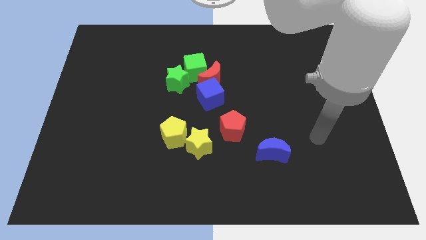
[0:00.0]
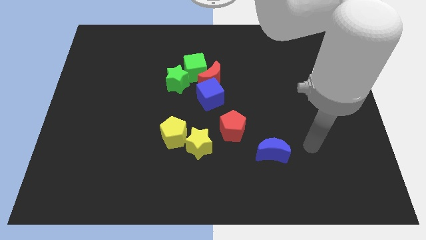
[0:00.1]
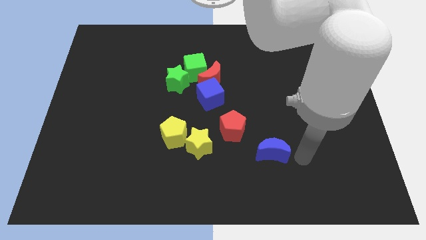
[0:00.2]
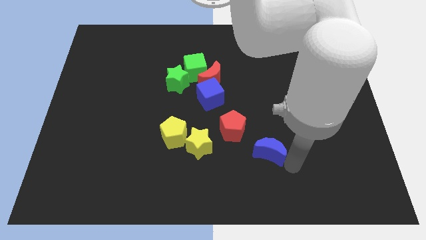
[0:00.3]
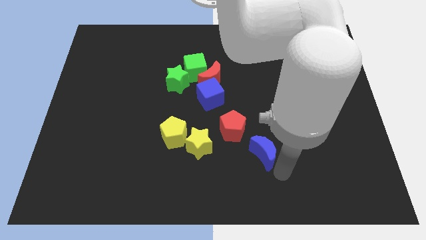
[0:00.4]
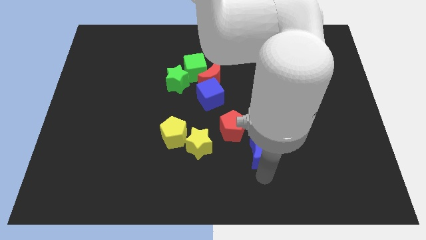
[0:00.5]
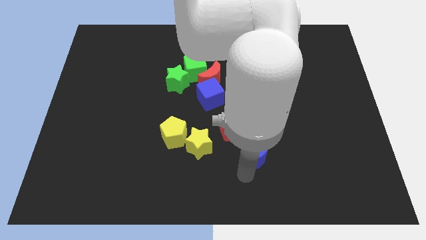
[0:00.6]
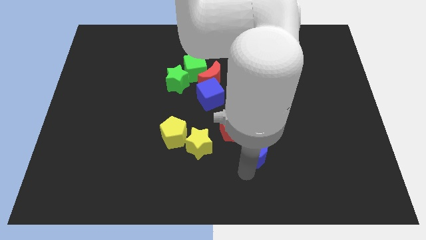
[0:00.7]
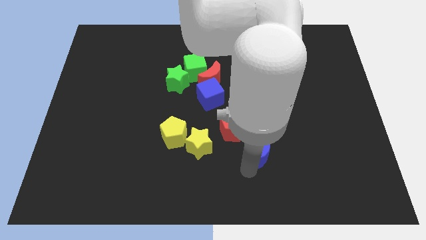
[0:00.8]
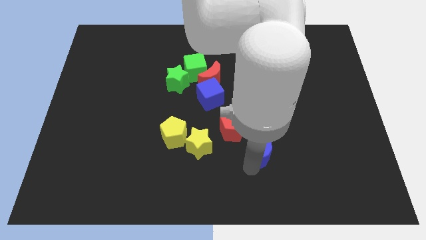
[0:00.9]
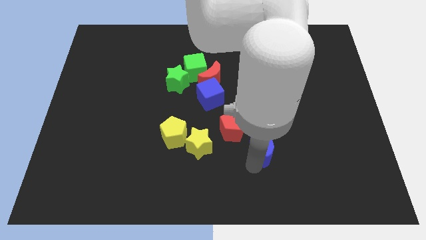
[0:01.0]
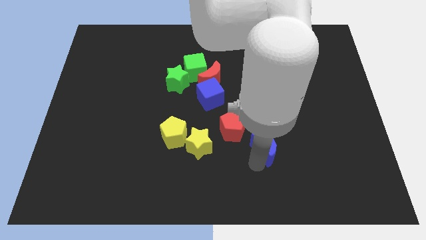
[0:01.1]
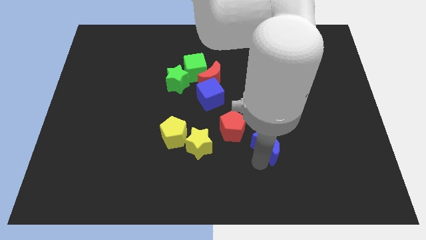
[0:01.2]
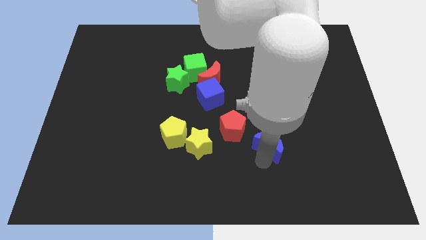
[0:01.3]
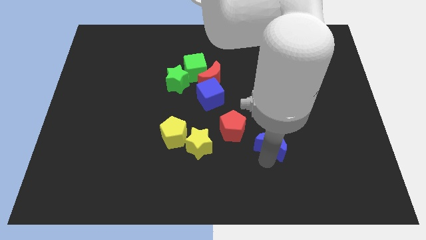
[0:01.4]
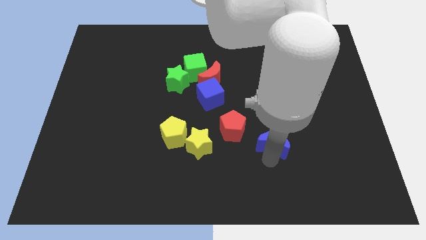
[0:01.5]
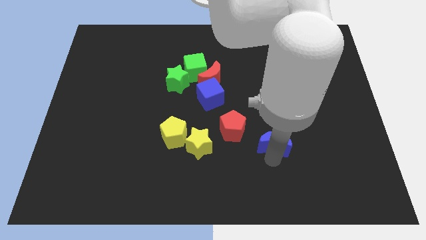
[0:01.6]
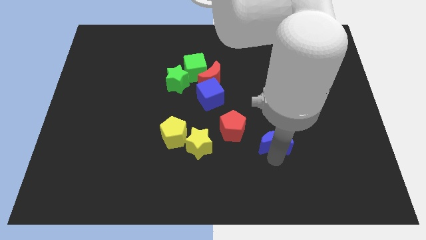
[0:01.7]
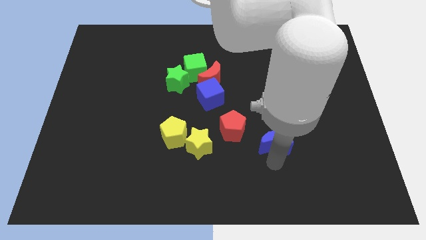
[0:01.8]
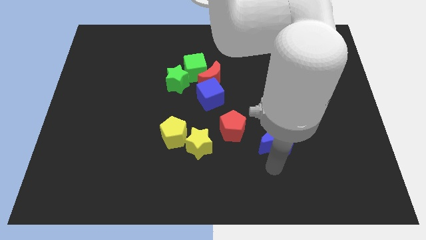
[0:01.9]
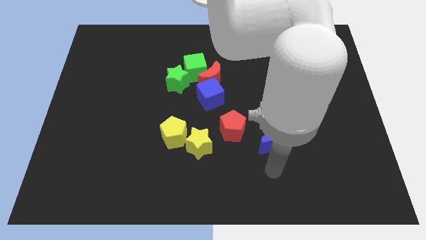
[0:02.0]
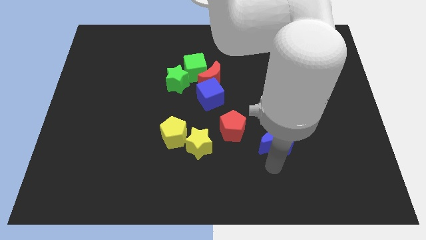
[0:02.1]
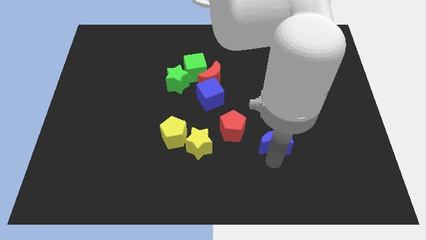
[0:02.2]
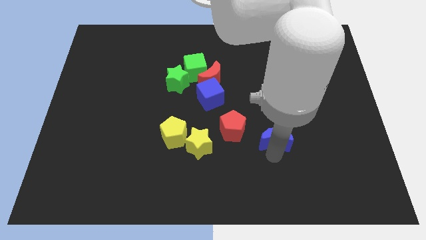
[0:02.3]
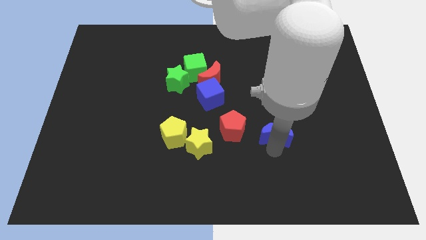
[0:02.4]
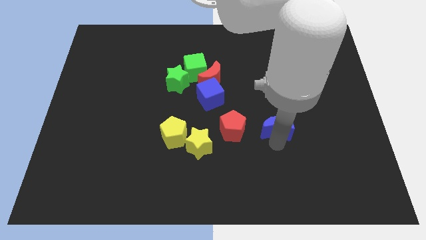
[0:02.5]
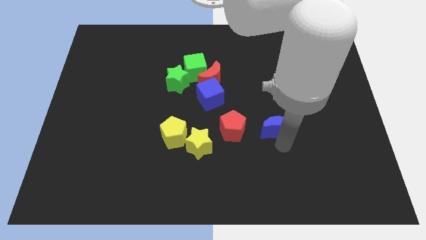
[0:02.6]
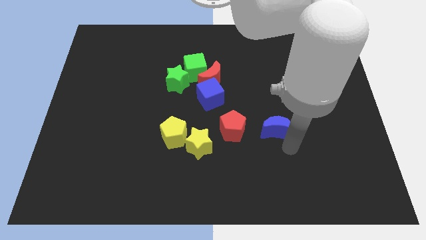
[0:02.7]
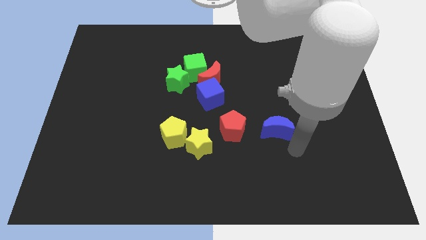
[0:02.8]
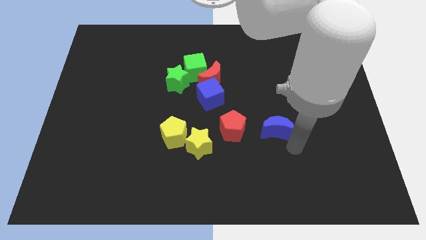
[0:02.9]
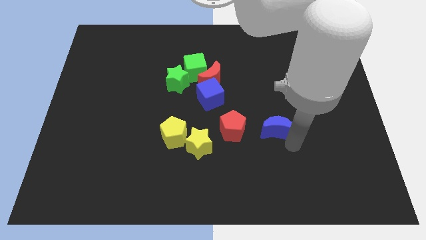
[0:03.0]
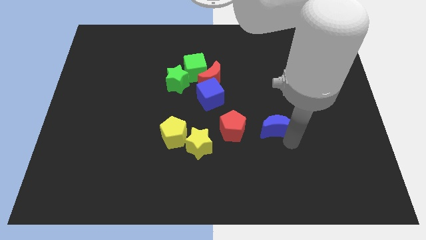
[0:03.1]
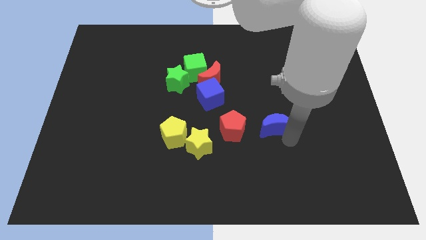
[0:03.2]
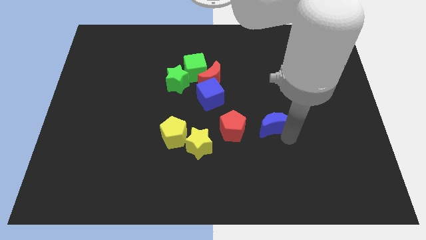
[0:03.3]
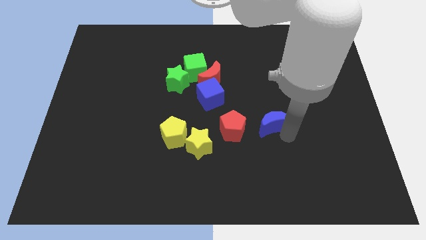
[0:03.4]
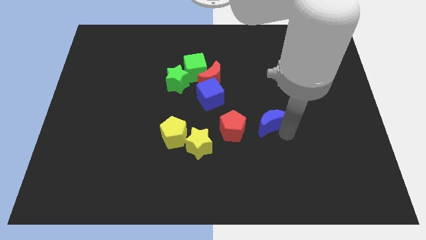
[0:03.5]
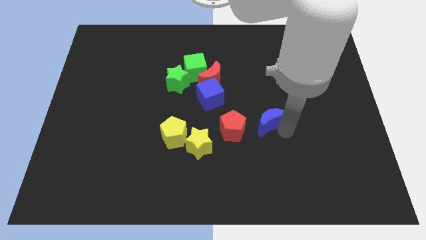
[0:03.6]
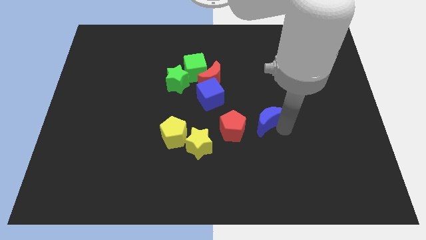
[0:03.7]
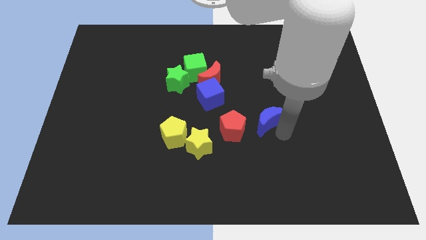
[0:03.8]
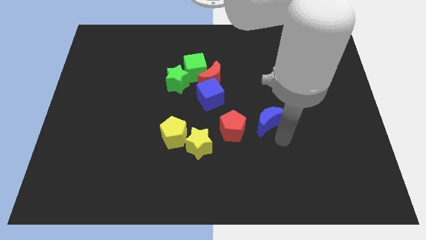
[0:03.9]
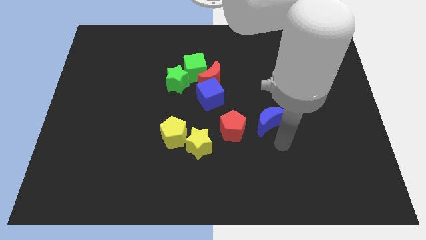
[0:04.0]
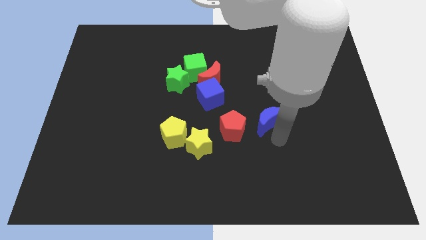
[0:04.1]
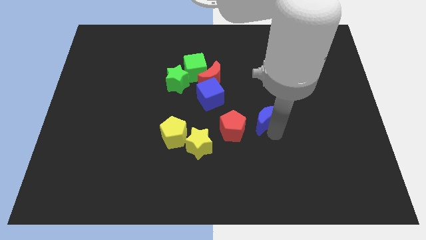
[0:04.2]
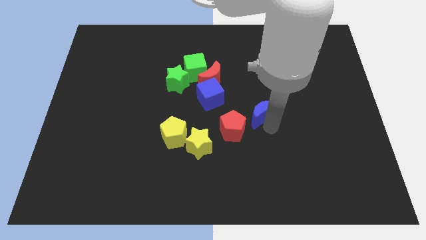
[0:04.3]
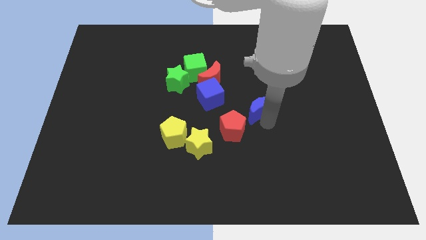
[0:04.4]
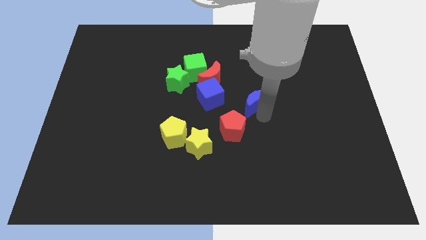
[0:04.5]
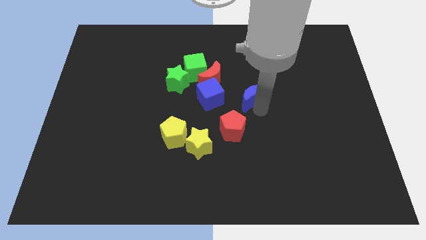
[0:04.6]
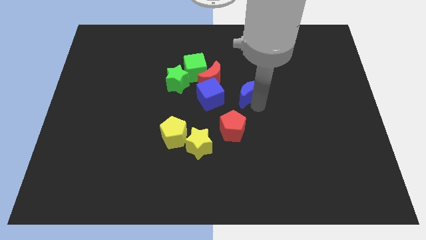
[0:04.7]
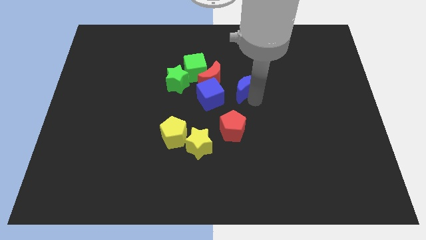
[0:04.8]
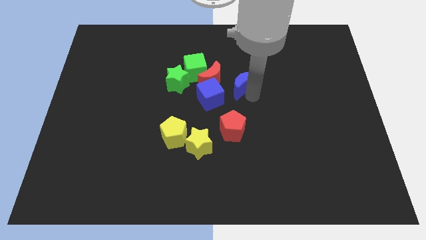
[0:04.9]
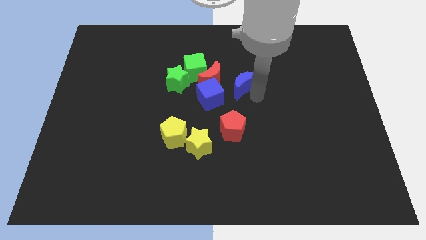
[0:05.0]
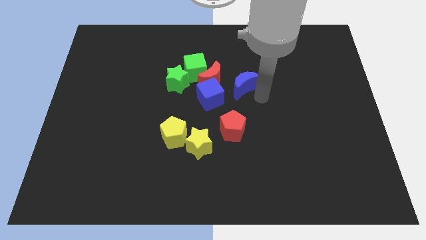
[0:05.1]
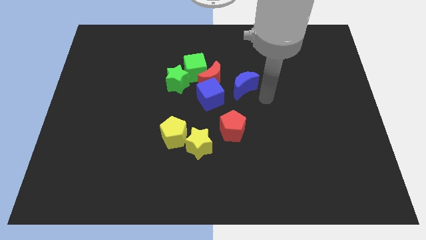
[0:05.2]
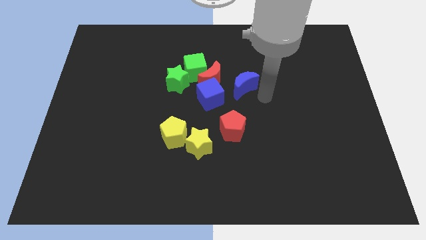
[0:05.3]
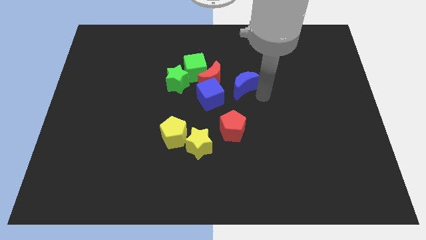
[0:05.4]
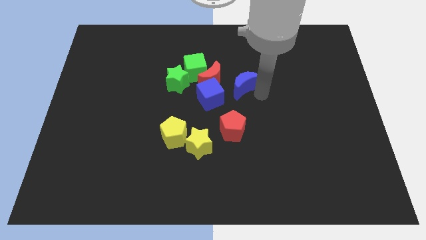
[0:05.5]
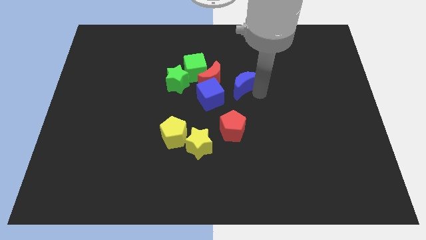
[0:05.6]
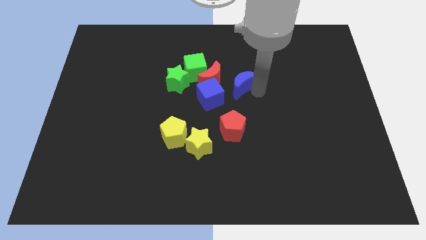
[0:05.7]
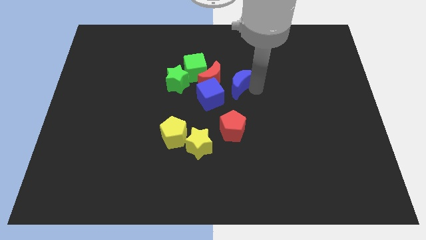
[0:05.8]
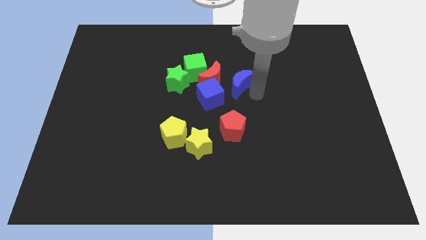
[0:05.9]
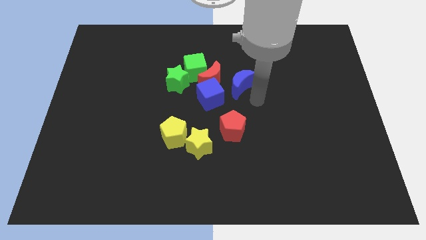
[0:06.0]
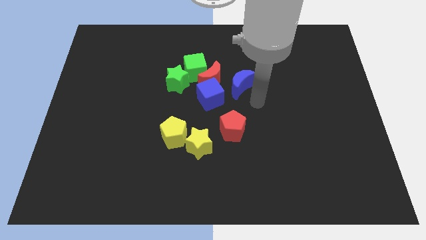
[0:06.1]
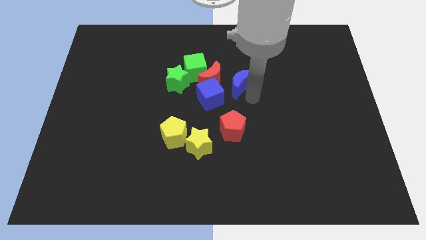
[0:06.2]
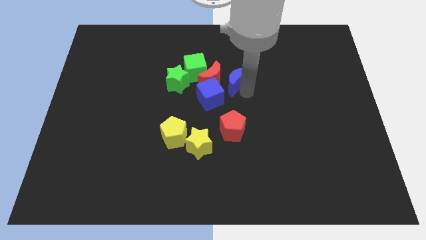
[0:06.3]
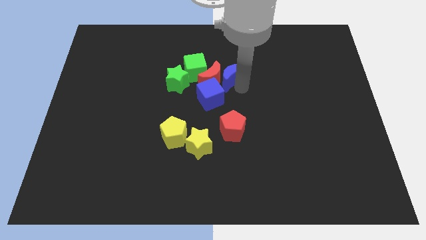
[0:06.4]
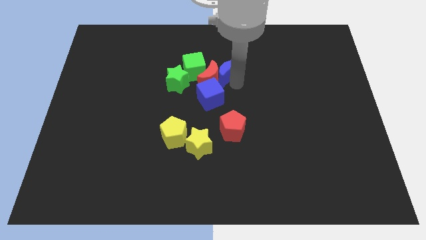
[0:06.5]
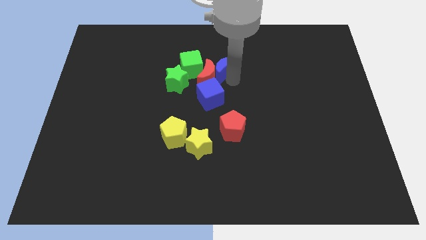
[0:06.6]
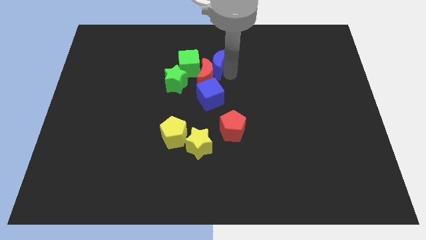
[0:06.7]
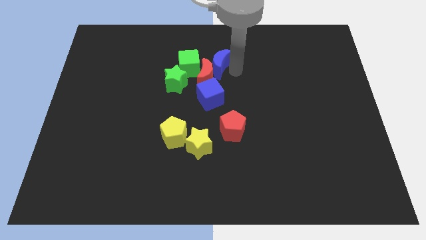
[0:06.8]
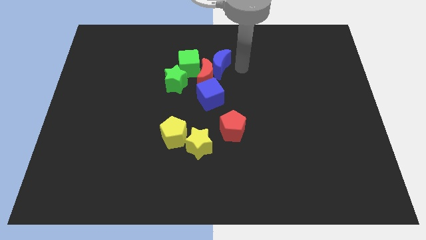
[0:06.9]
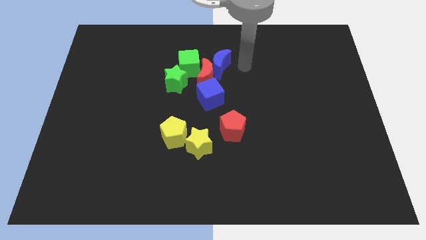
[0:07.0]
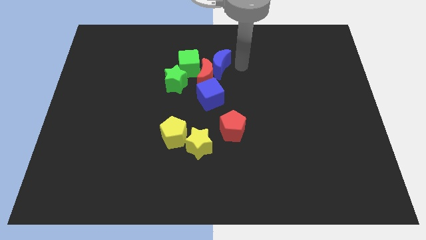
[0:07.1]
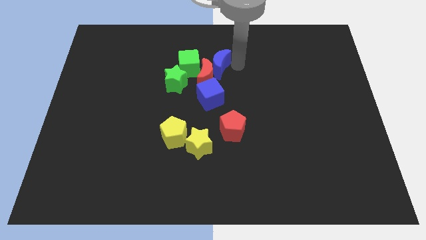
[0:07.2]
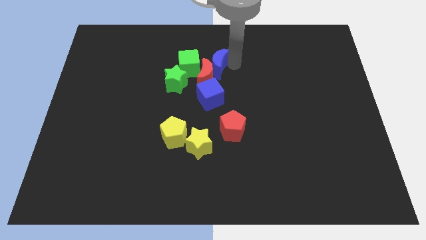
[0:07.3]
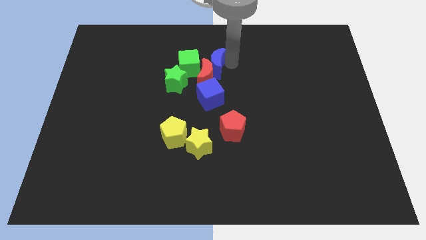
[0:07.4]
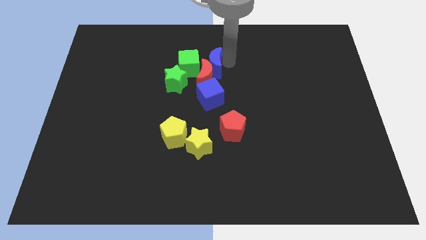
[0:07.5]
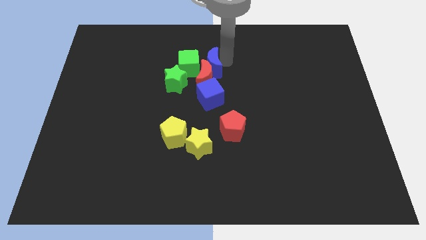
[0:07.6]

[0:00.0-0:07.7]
move the blue moon close to the green cube
